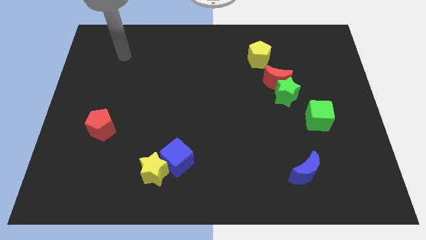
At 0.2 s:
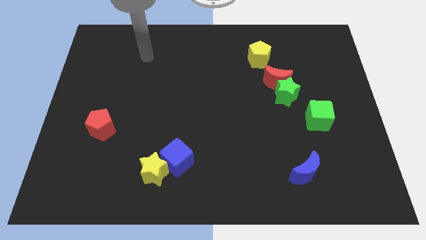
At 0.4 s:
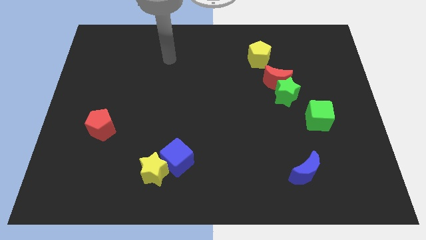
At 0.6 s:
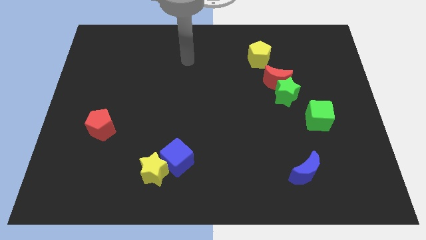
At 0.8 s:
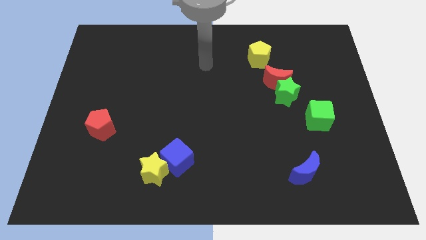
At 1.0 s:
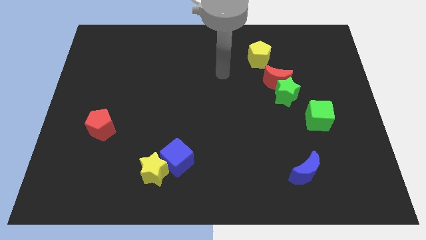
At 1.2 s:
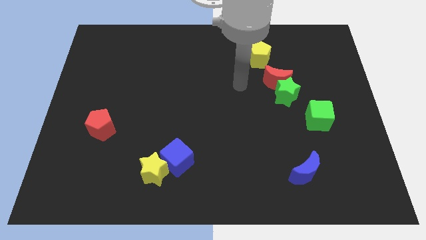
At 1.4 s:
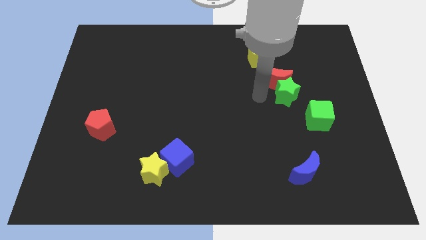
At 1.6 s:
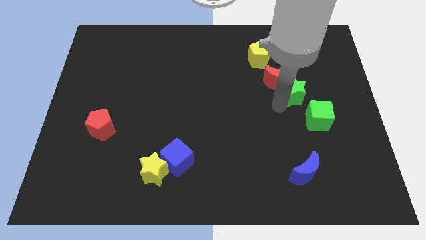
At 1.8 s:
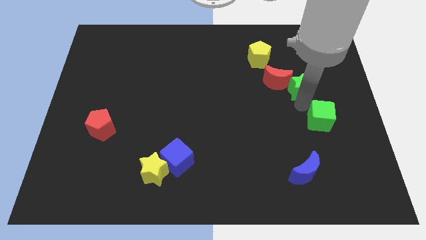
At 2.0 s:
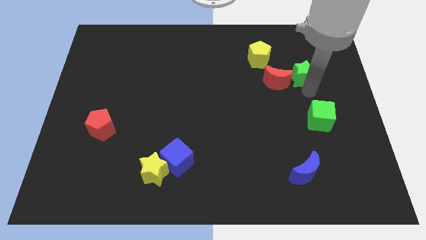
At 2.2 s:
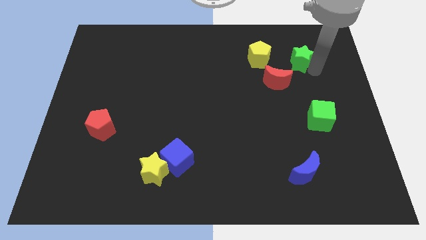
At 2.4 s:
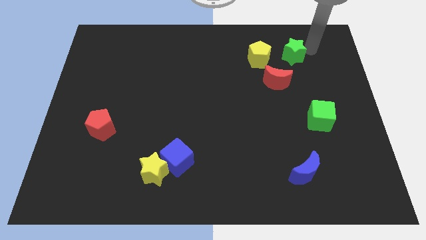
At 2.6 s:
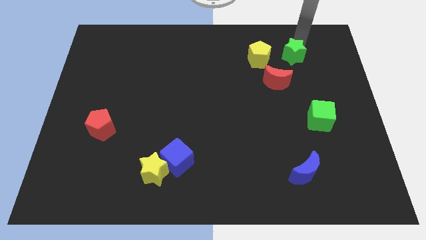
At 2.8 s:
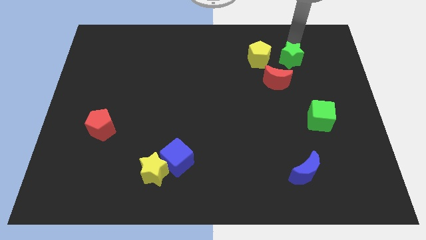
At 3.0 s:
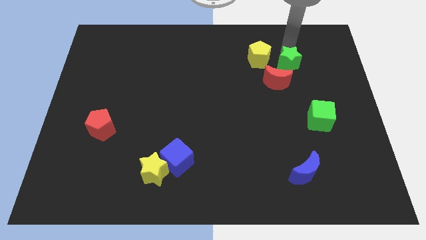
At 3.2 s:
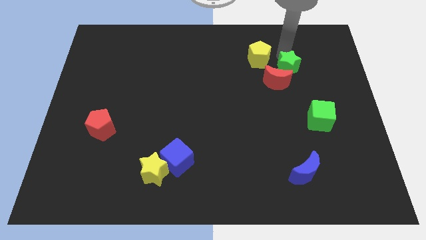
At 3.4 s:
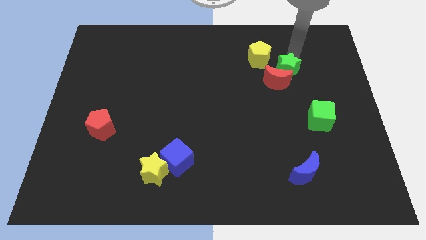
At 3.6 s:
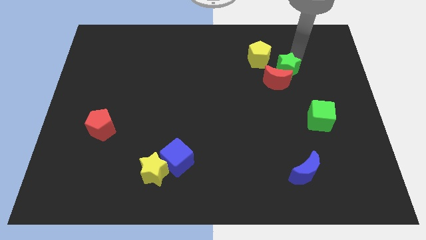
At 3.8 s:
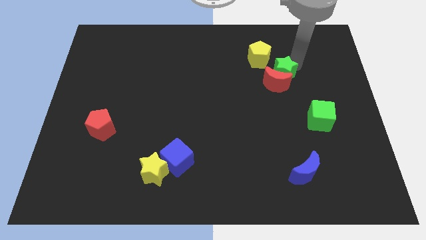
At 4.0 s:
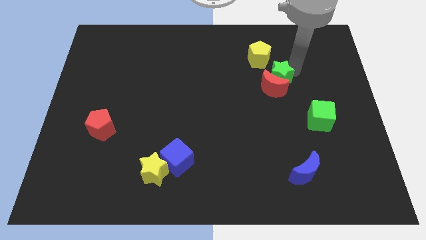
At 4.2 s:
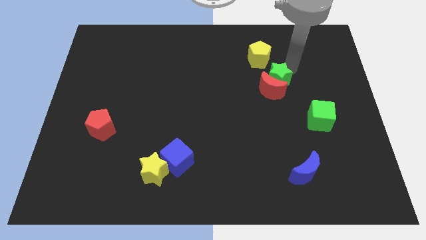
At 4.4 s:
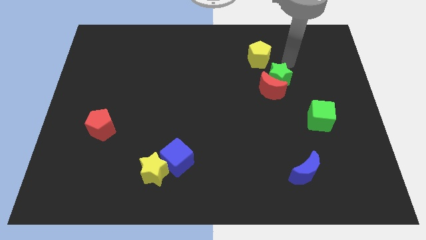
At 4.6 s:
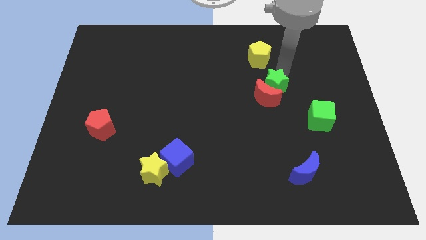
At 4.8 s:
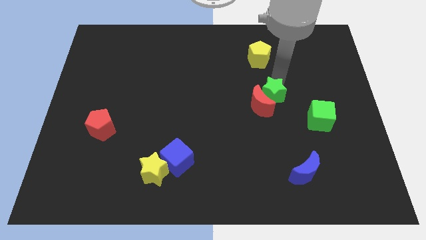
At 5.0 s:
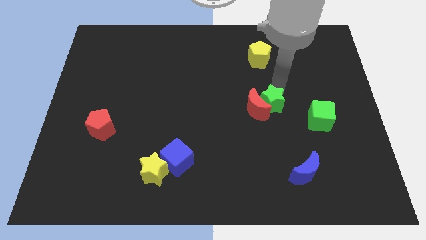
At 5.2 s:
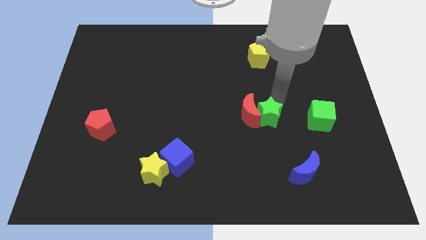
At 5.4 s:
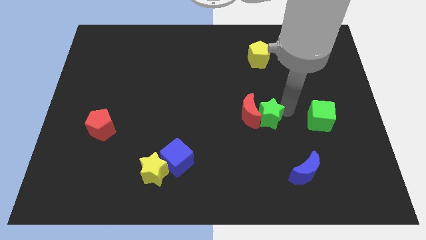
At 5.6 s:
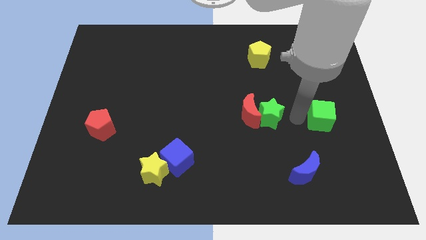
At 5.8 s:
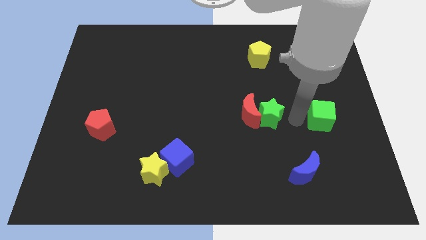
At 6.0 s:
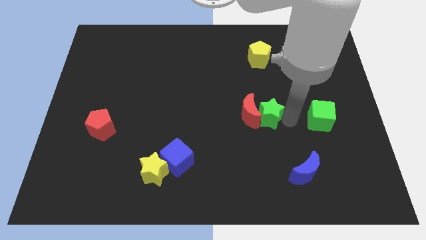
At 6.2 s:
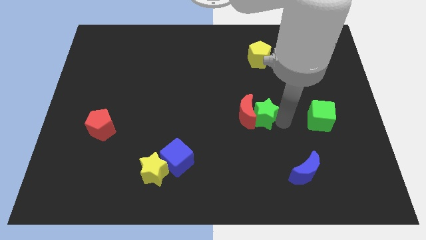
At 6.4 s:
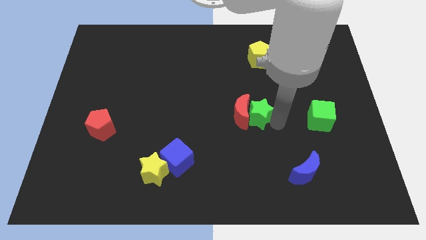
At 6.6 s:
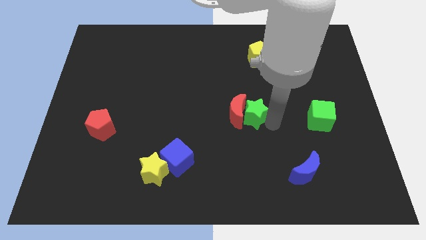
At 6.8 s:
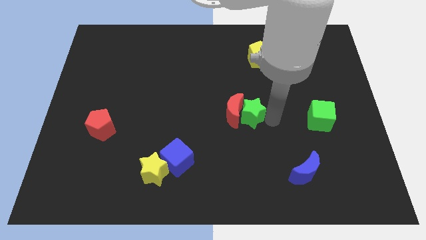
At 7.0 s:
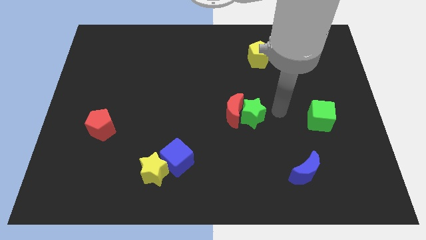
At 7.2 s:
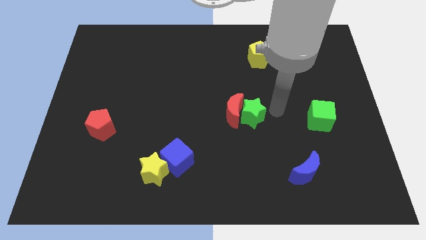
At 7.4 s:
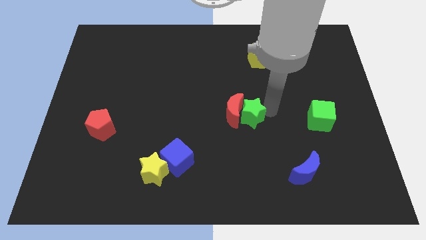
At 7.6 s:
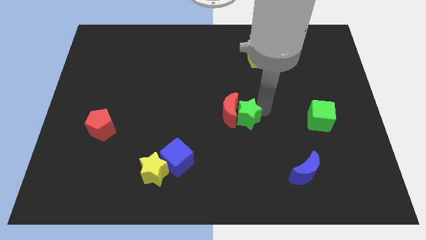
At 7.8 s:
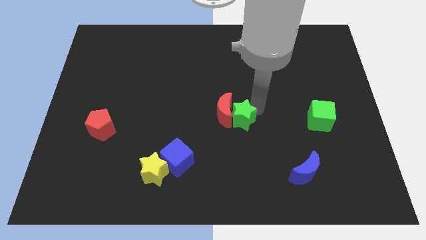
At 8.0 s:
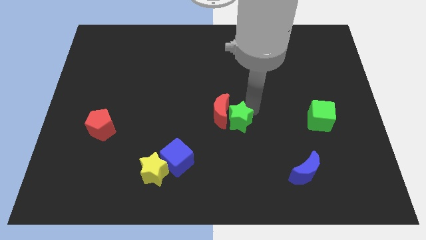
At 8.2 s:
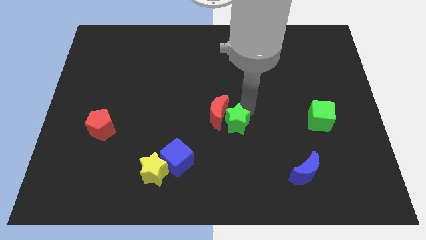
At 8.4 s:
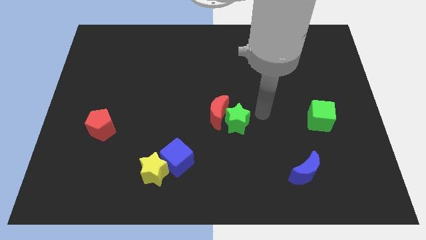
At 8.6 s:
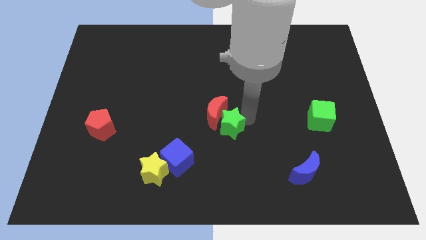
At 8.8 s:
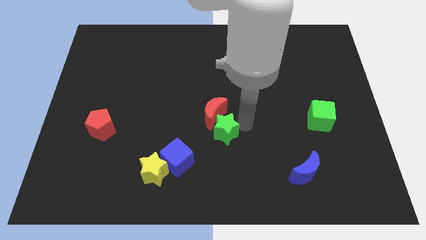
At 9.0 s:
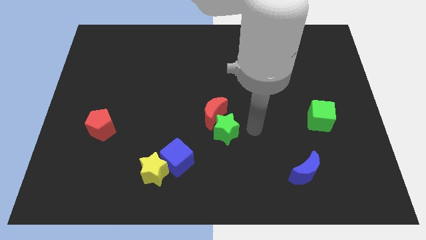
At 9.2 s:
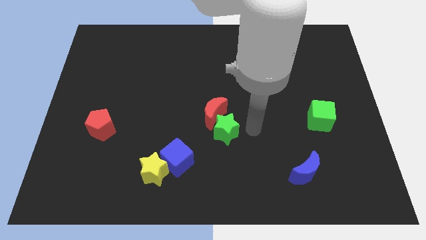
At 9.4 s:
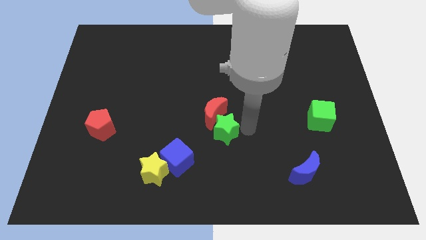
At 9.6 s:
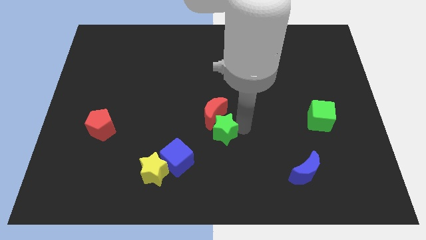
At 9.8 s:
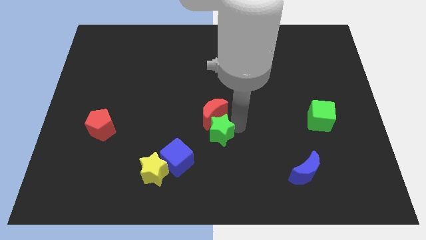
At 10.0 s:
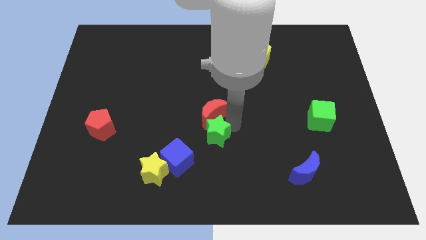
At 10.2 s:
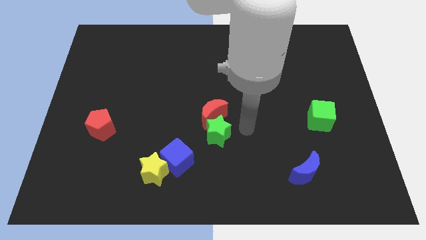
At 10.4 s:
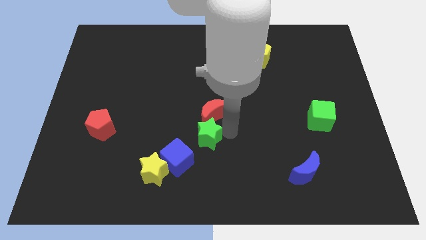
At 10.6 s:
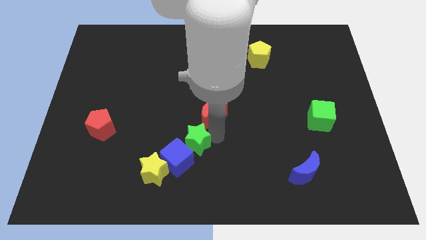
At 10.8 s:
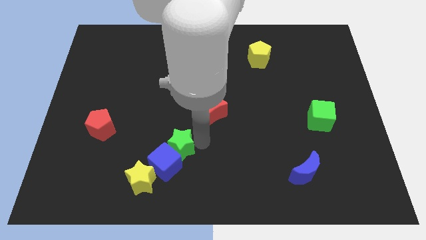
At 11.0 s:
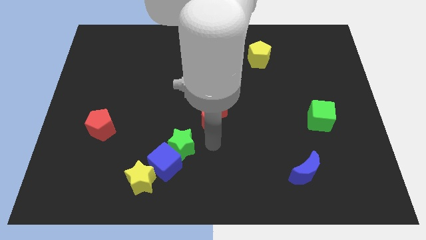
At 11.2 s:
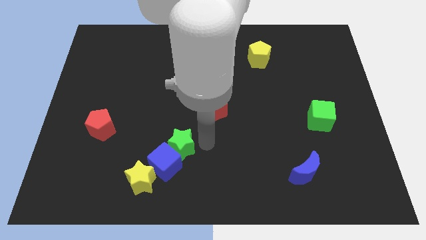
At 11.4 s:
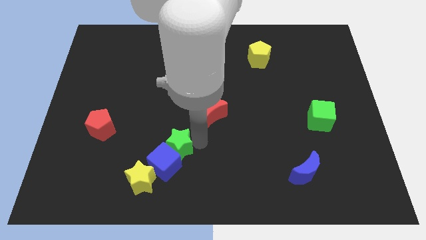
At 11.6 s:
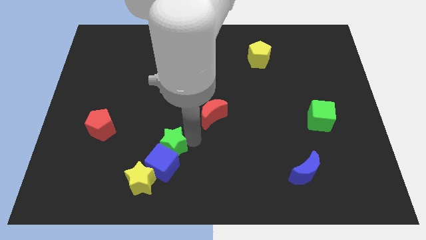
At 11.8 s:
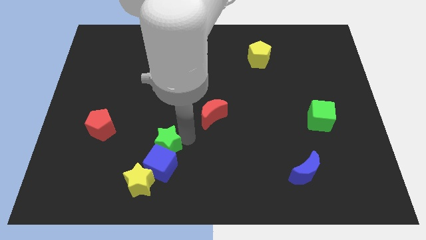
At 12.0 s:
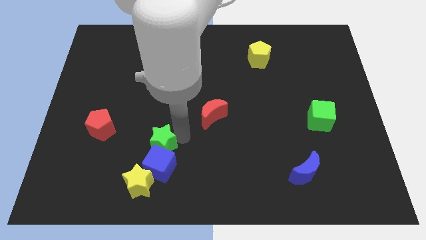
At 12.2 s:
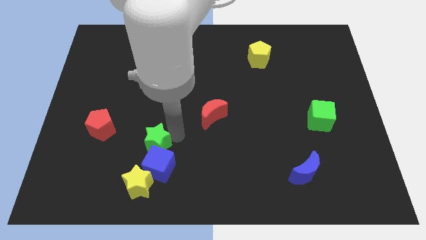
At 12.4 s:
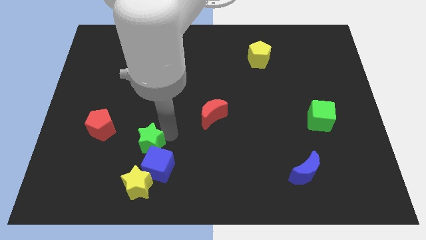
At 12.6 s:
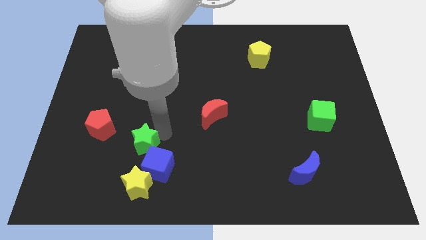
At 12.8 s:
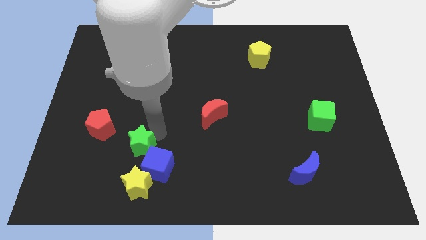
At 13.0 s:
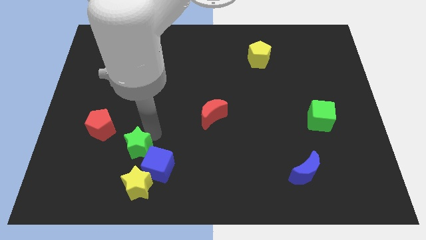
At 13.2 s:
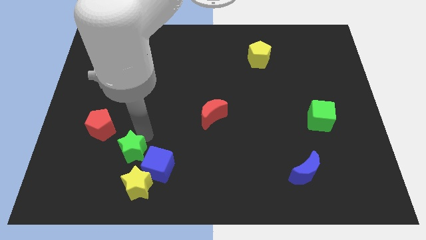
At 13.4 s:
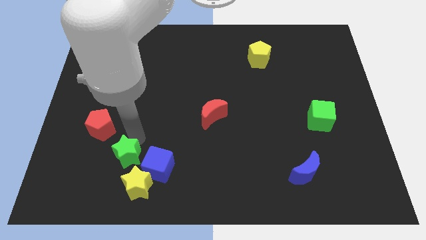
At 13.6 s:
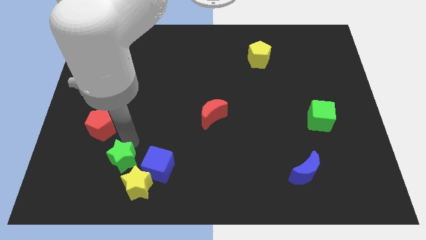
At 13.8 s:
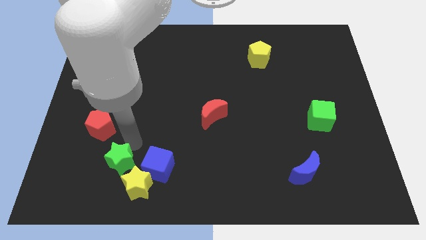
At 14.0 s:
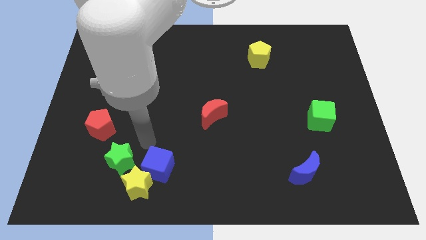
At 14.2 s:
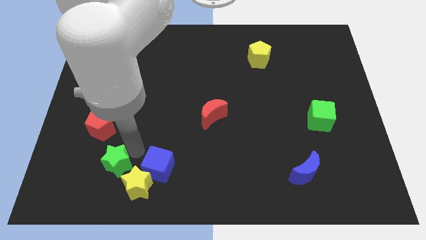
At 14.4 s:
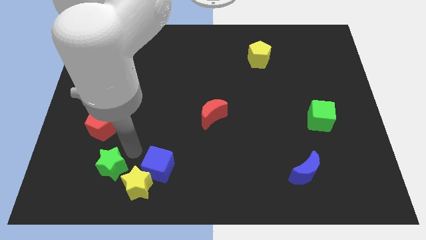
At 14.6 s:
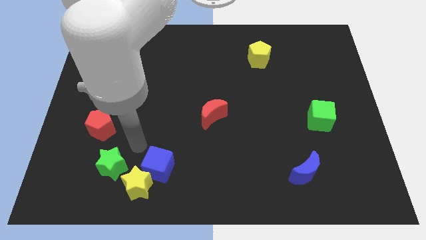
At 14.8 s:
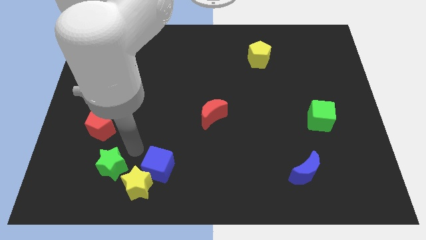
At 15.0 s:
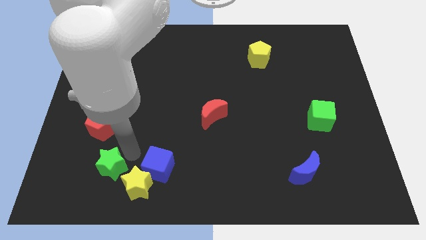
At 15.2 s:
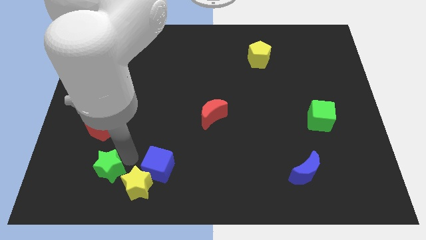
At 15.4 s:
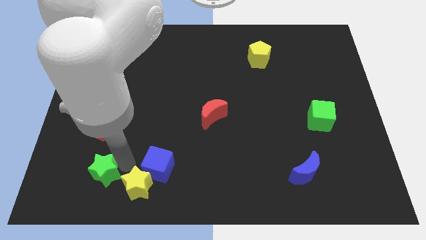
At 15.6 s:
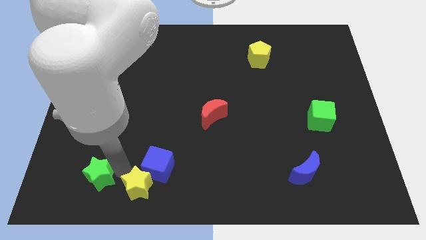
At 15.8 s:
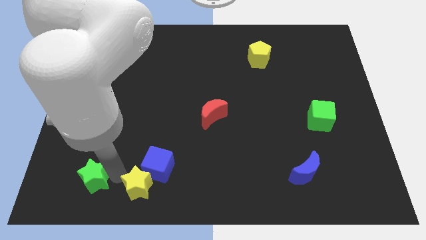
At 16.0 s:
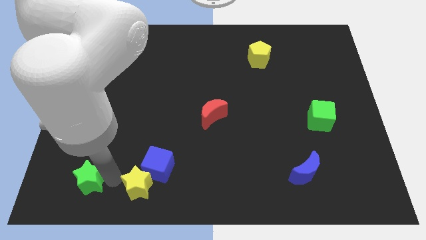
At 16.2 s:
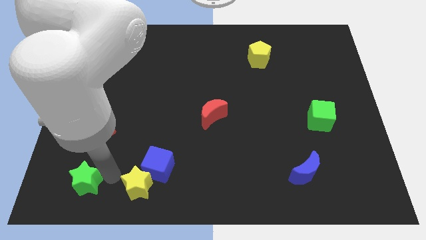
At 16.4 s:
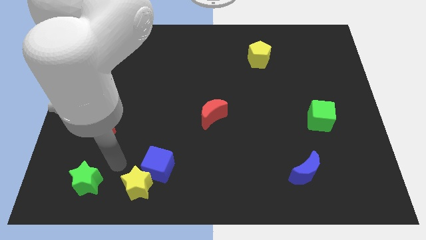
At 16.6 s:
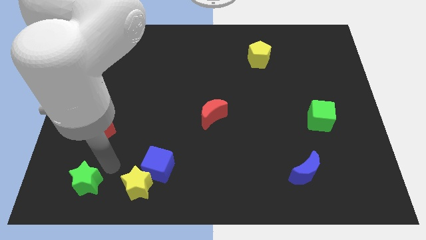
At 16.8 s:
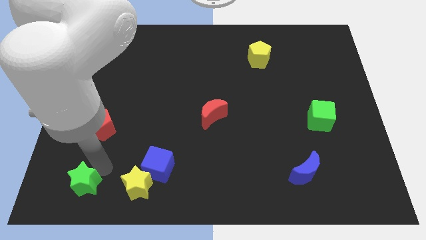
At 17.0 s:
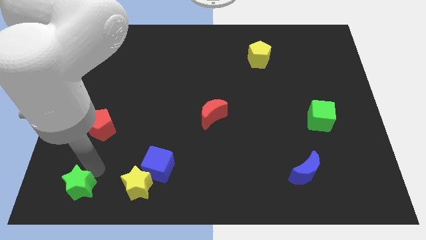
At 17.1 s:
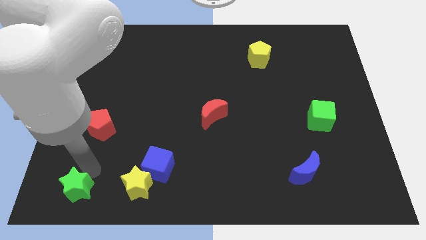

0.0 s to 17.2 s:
push the green star to the bottom left
